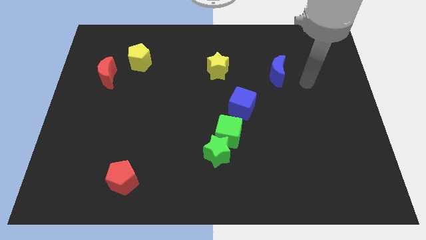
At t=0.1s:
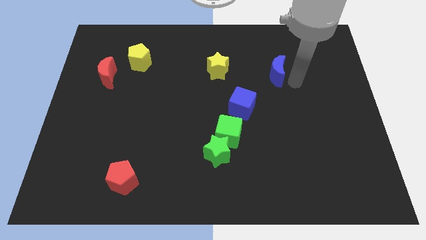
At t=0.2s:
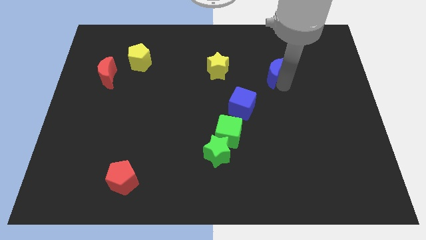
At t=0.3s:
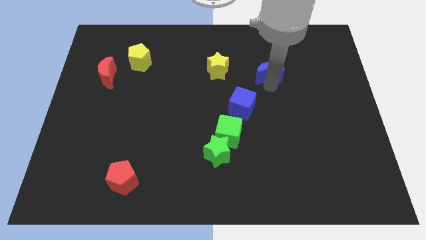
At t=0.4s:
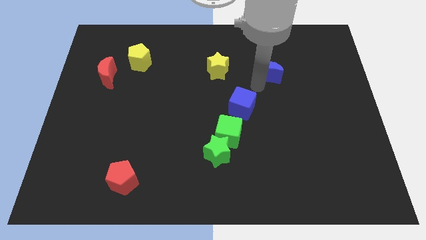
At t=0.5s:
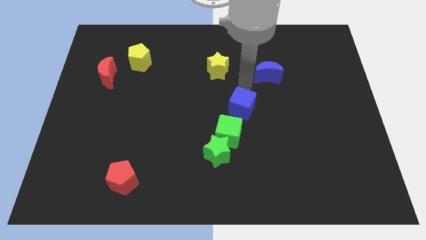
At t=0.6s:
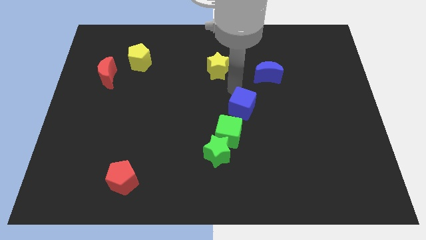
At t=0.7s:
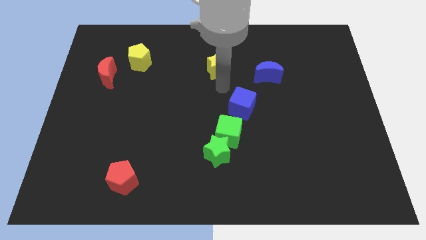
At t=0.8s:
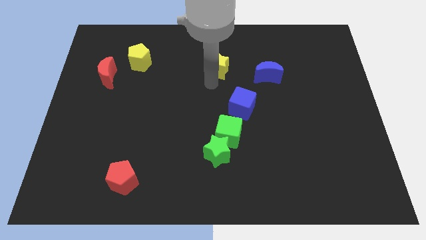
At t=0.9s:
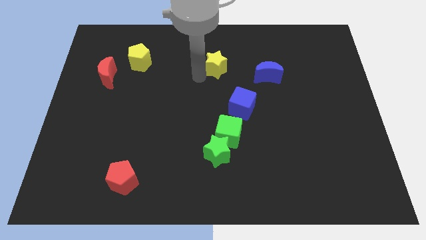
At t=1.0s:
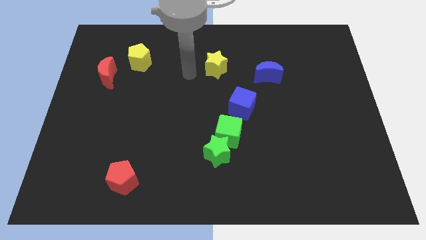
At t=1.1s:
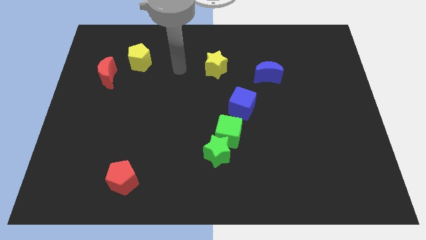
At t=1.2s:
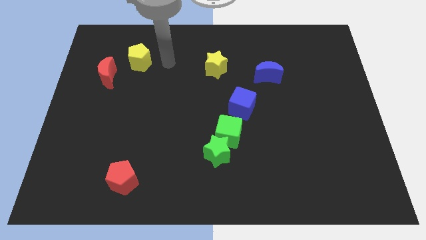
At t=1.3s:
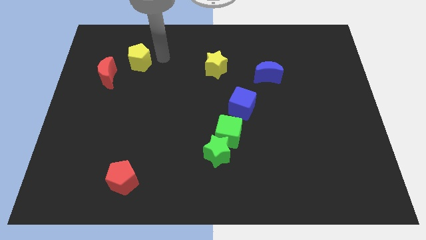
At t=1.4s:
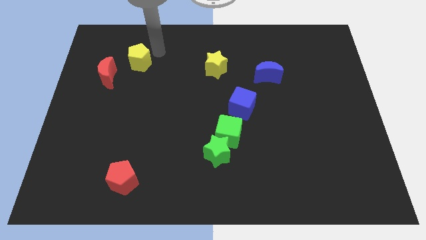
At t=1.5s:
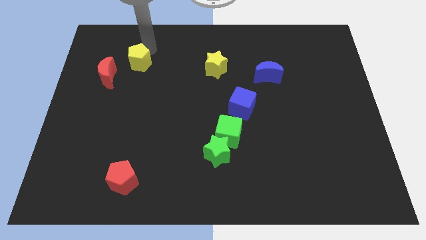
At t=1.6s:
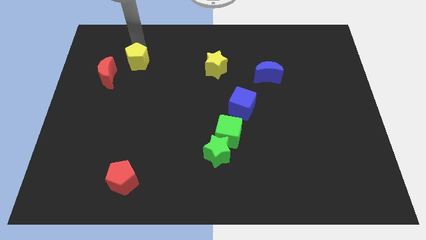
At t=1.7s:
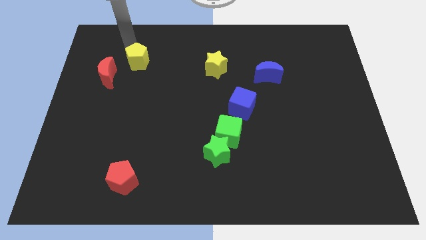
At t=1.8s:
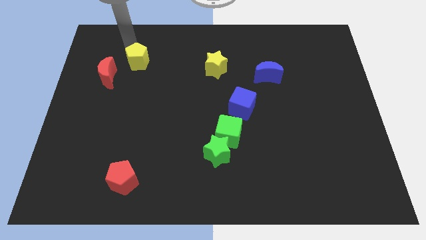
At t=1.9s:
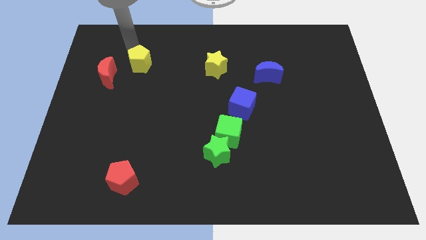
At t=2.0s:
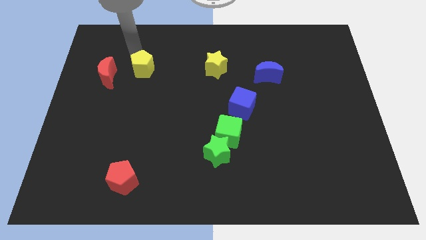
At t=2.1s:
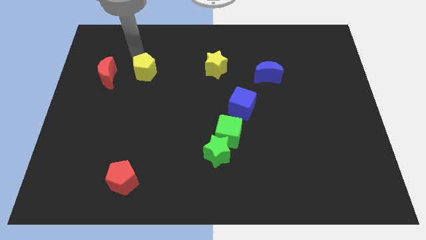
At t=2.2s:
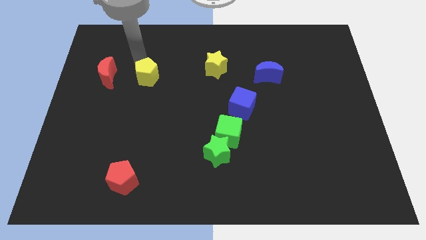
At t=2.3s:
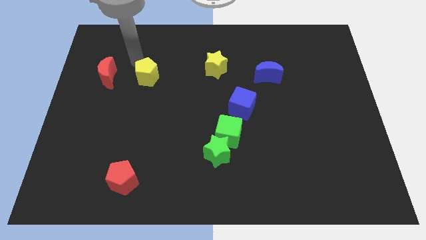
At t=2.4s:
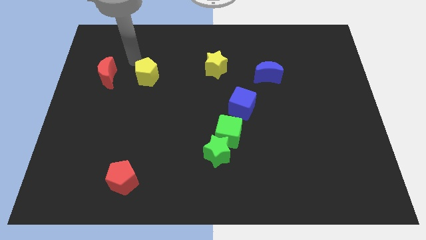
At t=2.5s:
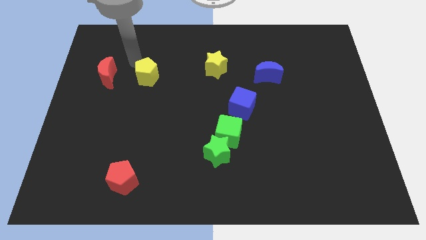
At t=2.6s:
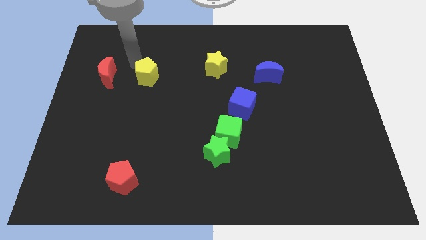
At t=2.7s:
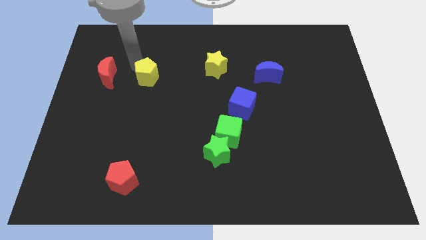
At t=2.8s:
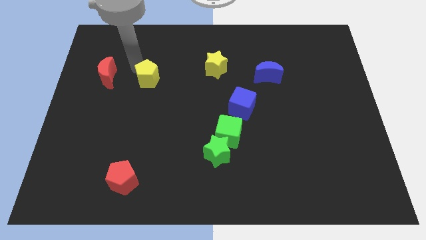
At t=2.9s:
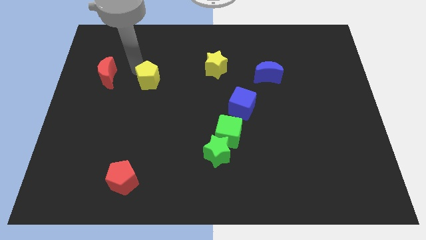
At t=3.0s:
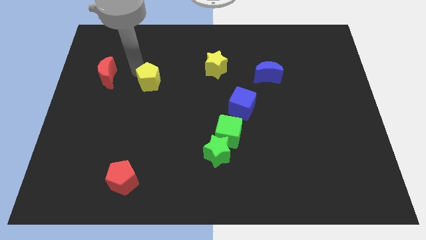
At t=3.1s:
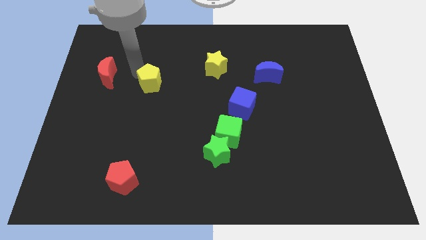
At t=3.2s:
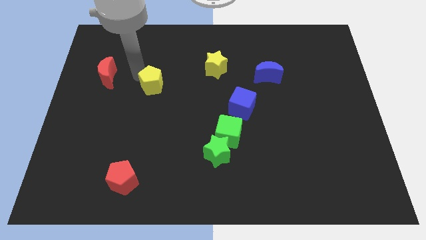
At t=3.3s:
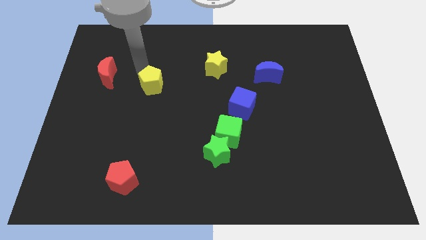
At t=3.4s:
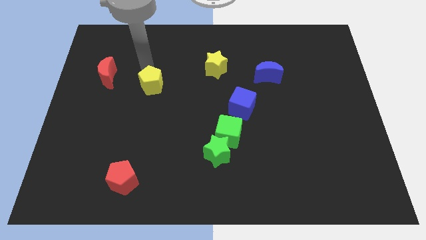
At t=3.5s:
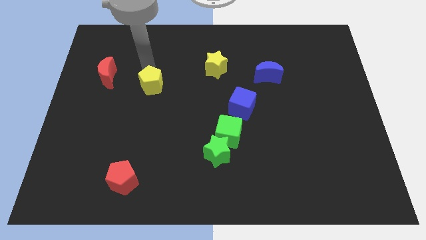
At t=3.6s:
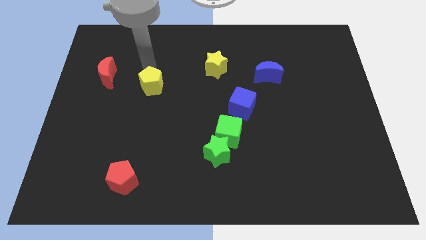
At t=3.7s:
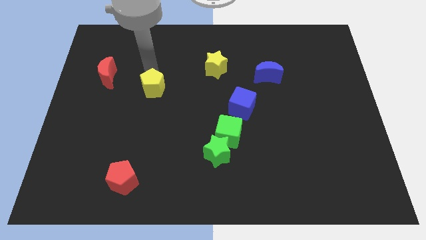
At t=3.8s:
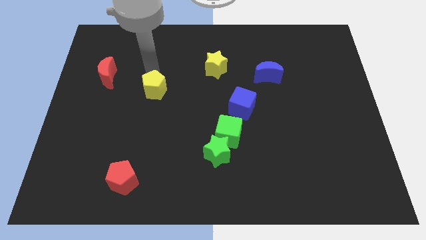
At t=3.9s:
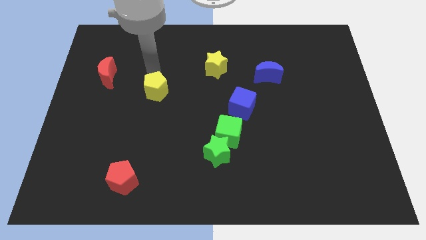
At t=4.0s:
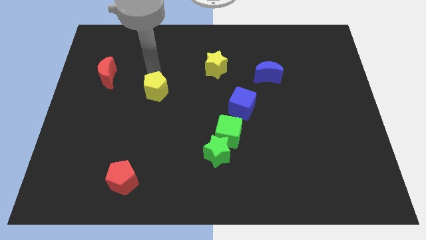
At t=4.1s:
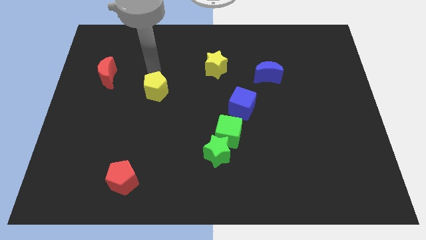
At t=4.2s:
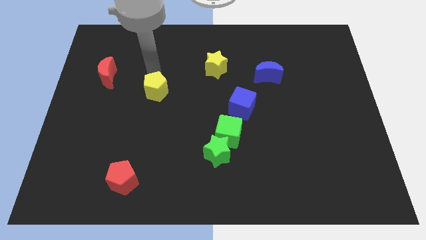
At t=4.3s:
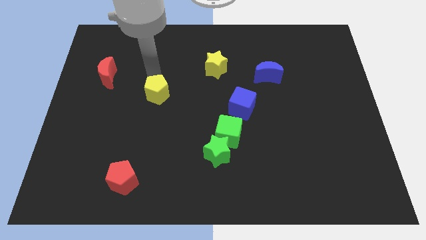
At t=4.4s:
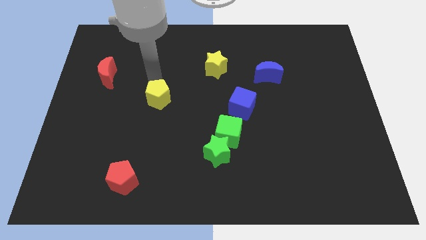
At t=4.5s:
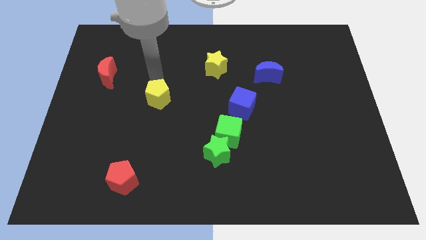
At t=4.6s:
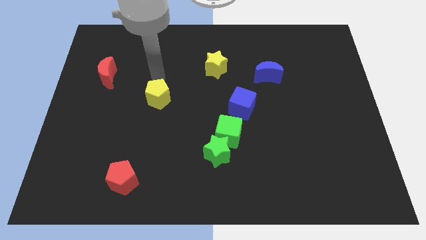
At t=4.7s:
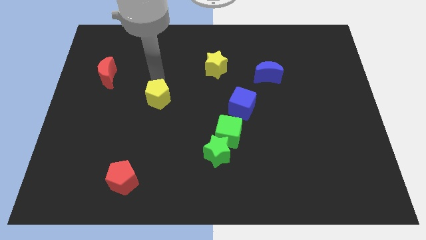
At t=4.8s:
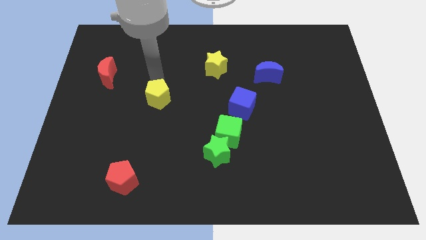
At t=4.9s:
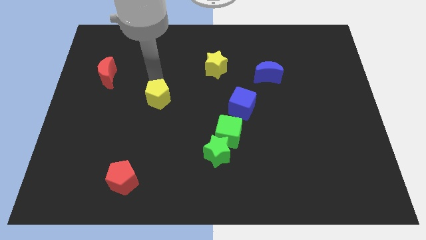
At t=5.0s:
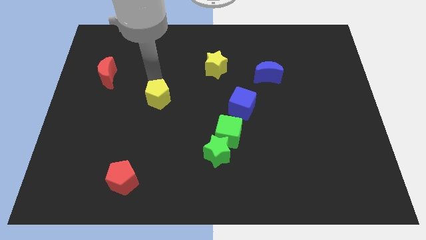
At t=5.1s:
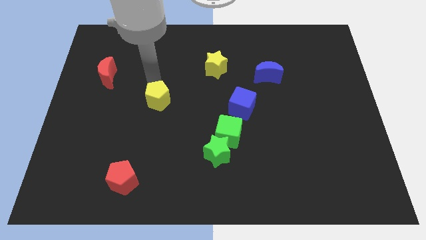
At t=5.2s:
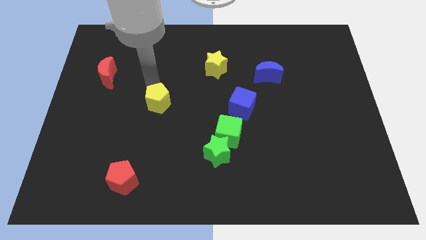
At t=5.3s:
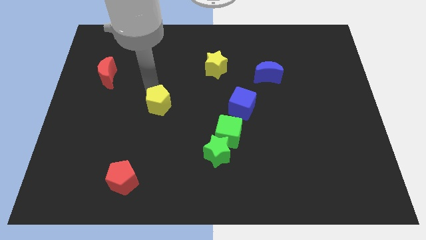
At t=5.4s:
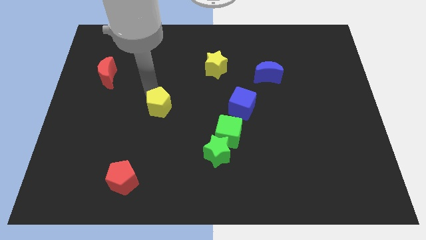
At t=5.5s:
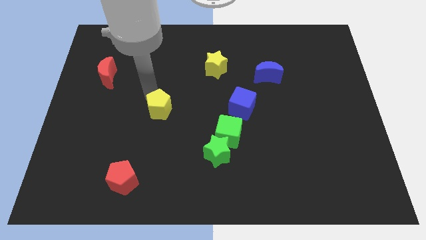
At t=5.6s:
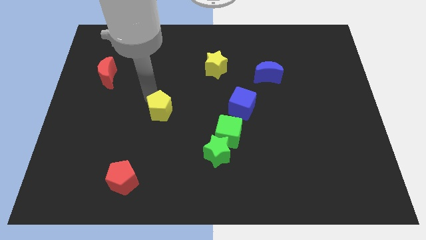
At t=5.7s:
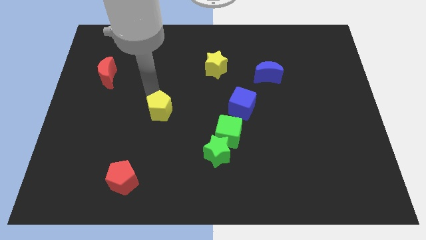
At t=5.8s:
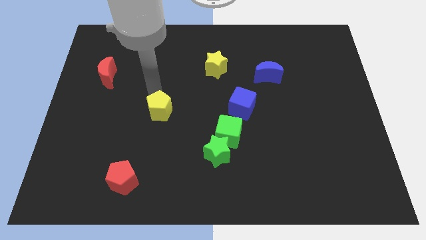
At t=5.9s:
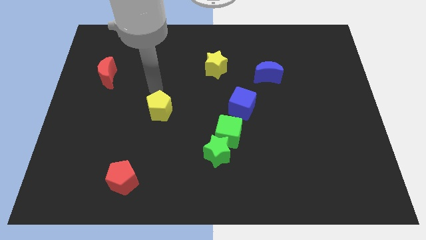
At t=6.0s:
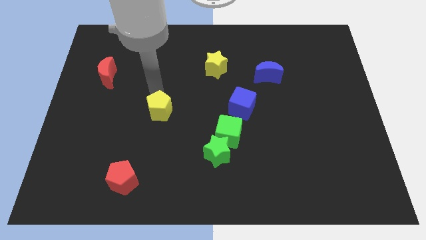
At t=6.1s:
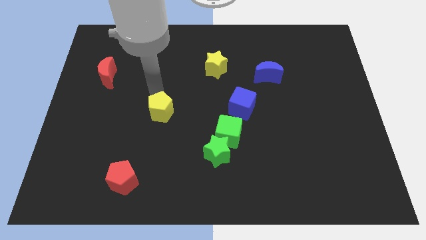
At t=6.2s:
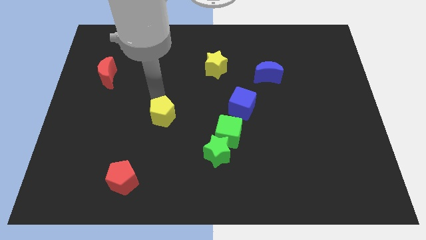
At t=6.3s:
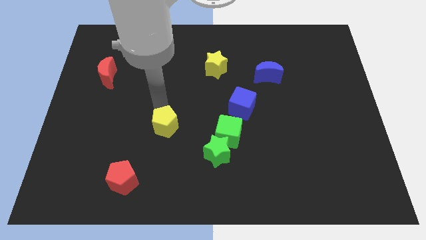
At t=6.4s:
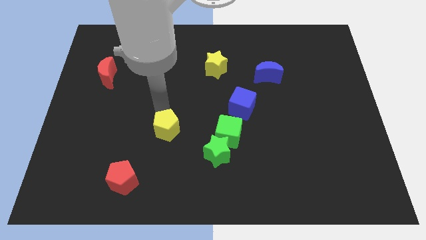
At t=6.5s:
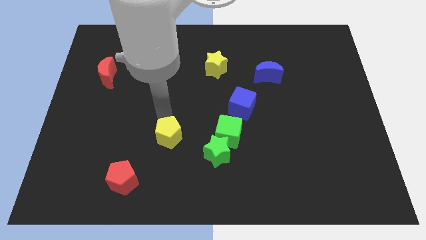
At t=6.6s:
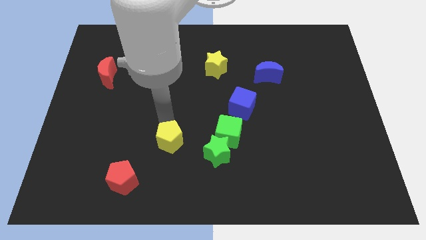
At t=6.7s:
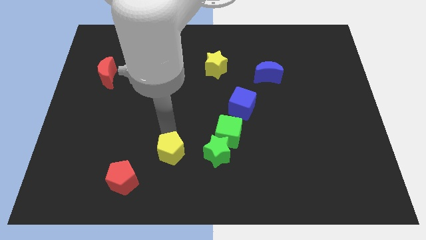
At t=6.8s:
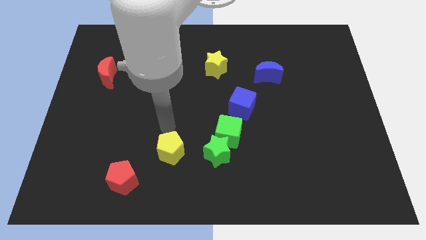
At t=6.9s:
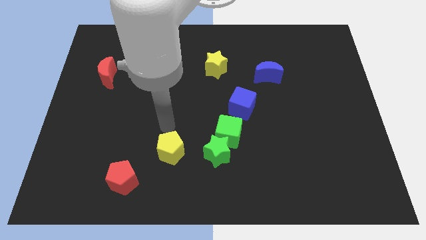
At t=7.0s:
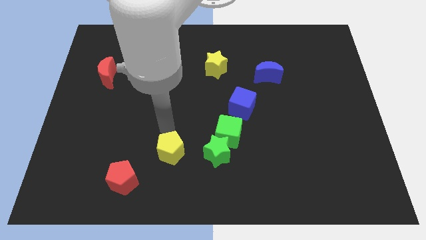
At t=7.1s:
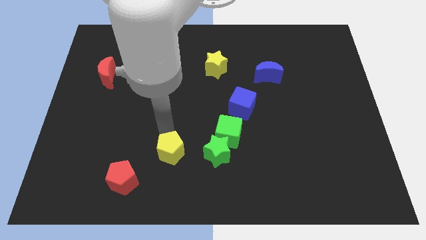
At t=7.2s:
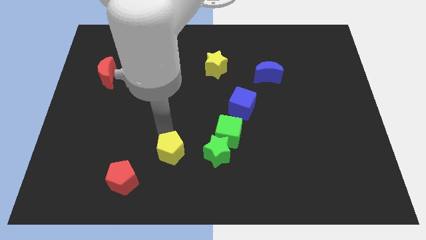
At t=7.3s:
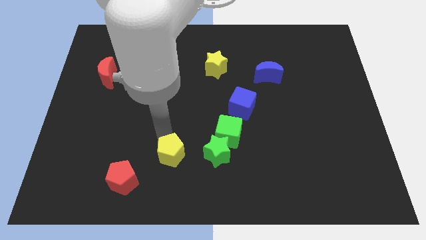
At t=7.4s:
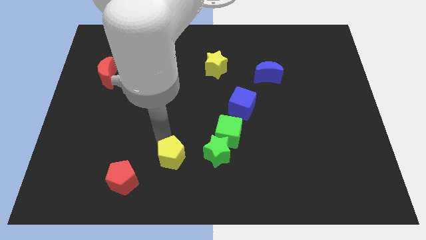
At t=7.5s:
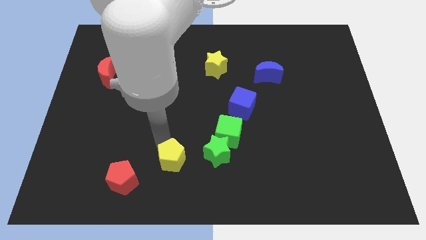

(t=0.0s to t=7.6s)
move the yellow pentagon right of the red pentagon
